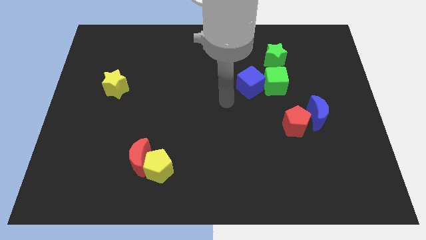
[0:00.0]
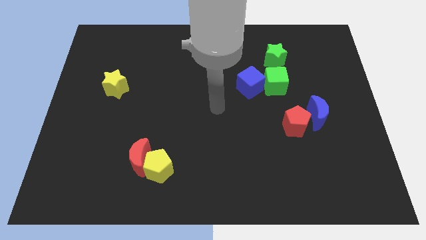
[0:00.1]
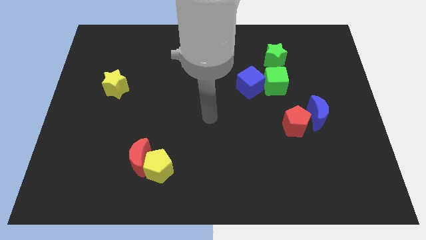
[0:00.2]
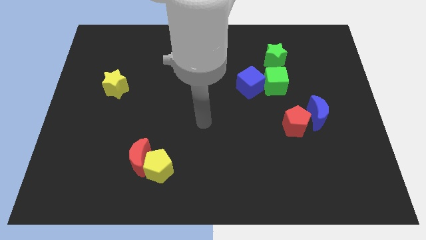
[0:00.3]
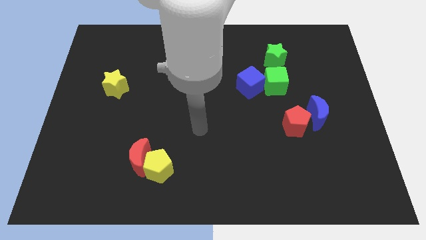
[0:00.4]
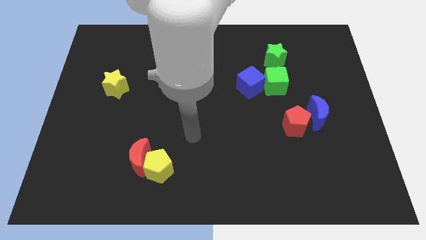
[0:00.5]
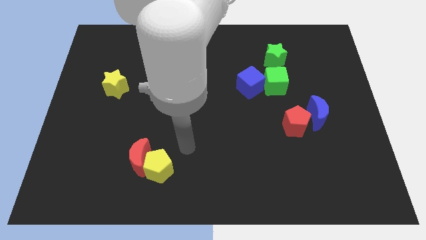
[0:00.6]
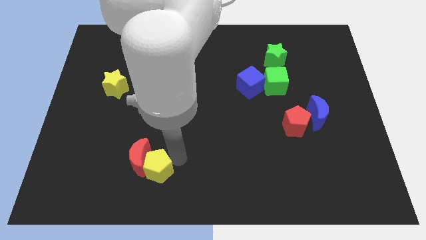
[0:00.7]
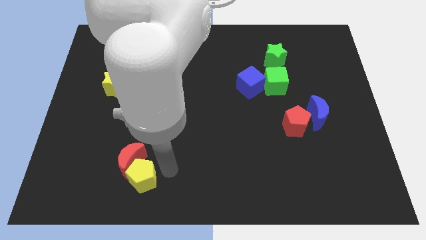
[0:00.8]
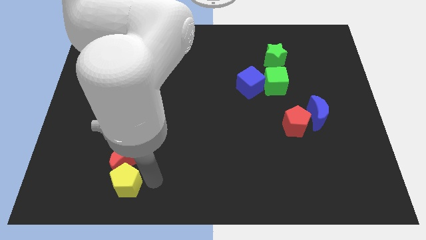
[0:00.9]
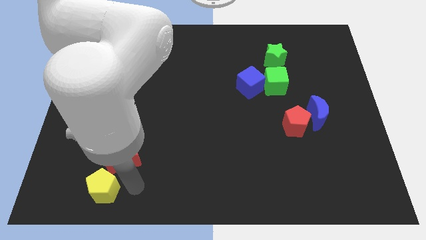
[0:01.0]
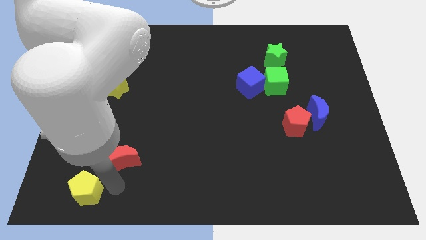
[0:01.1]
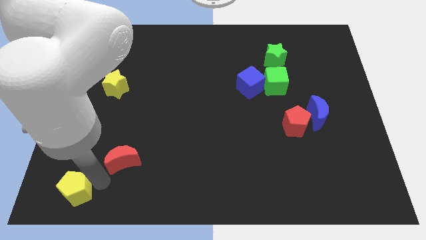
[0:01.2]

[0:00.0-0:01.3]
move the red moon away from the yellow pentagon

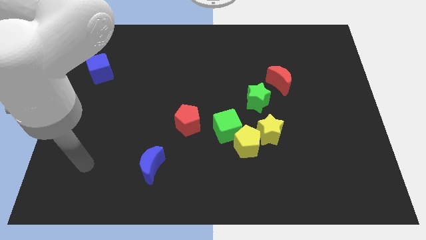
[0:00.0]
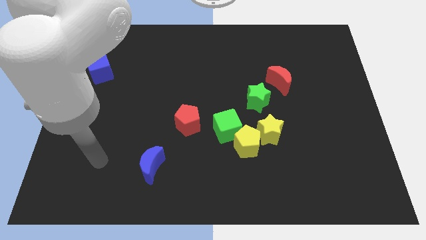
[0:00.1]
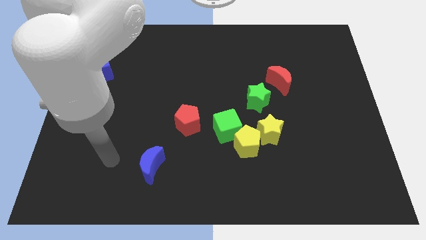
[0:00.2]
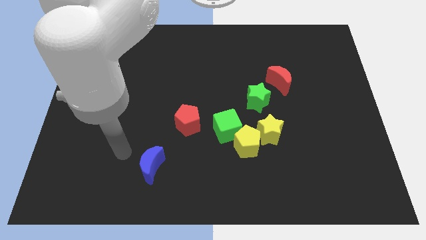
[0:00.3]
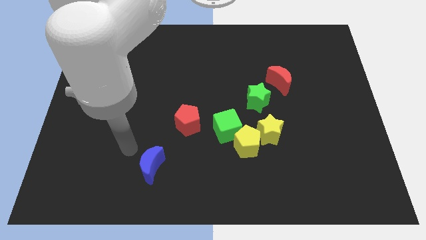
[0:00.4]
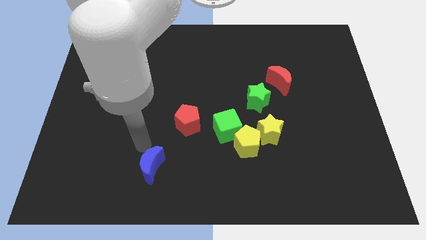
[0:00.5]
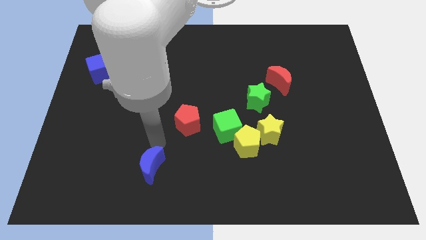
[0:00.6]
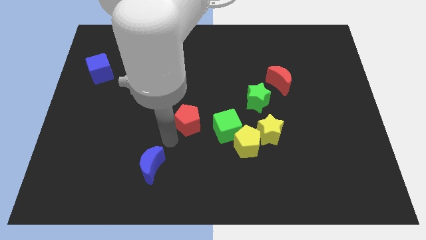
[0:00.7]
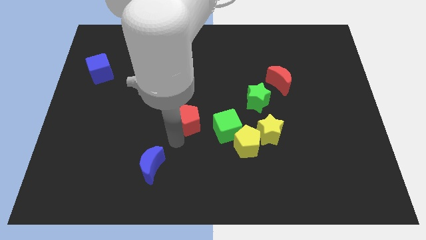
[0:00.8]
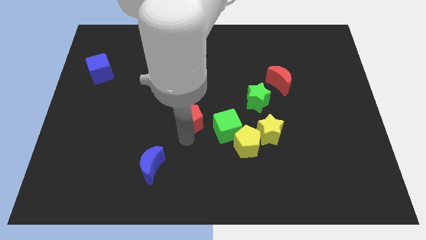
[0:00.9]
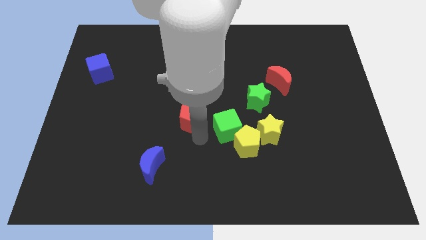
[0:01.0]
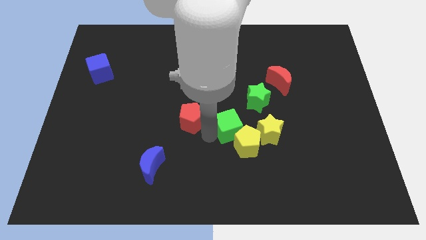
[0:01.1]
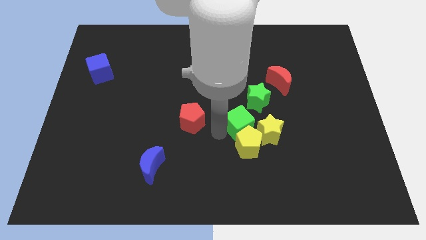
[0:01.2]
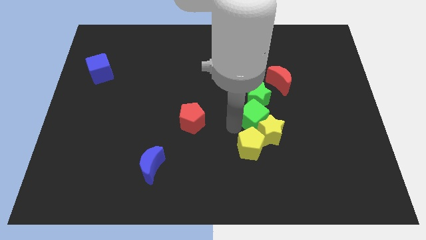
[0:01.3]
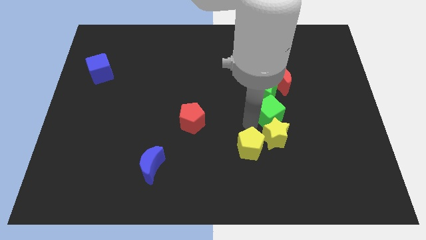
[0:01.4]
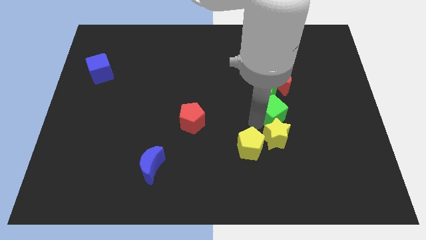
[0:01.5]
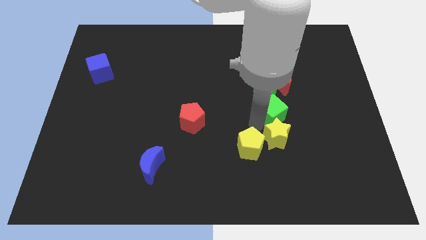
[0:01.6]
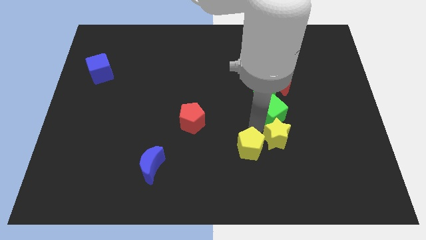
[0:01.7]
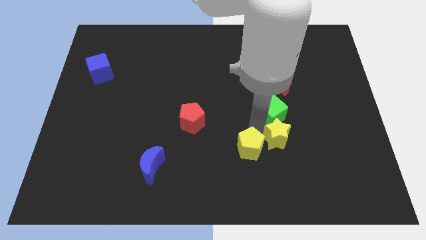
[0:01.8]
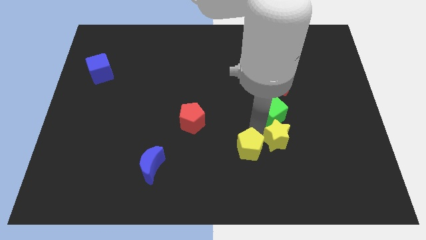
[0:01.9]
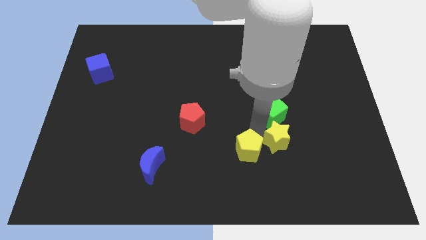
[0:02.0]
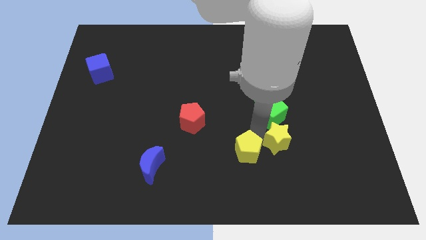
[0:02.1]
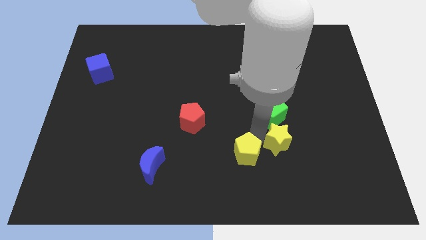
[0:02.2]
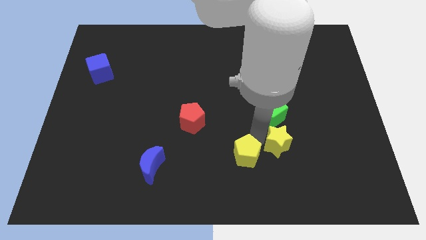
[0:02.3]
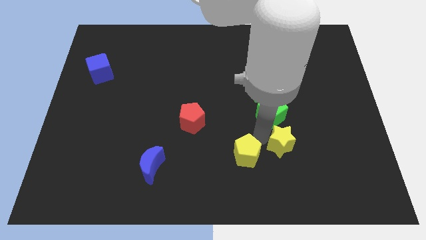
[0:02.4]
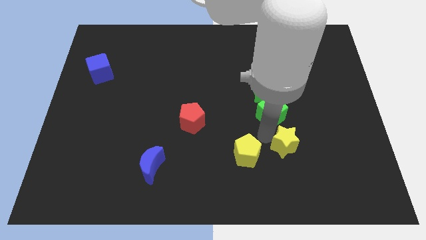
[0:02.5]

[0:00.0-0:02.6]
separate the yellow pentagon from the green cube and yellow star

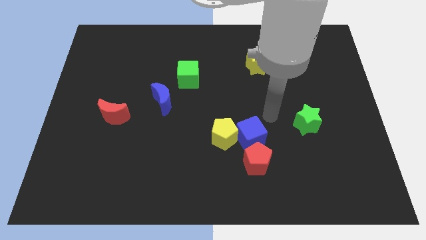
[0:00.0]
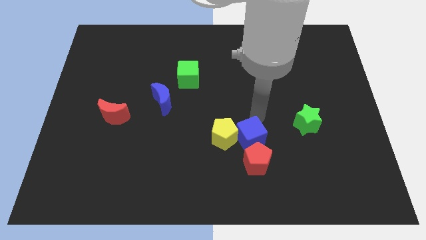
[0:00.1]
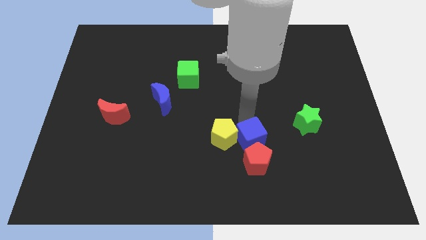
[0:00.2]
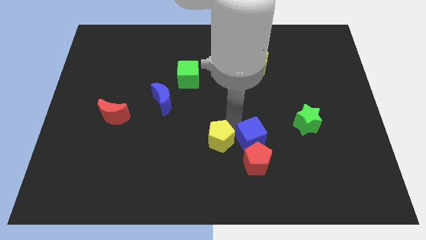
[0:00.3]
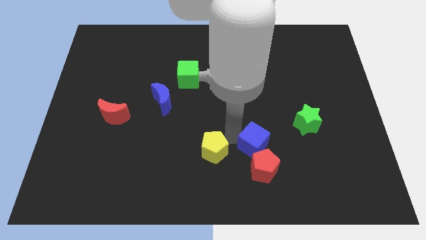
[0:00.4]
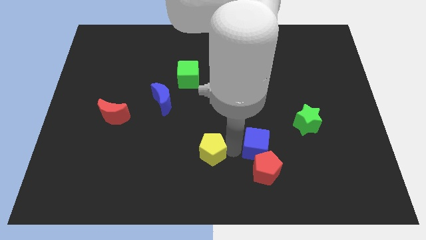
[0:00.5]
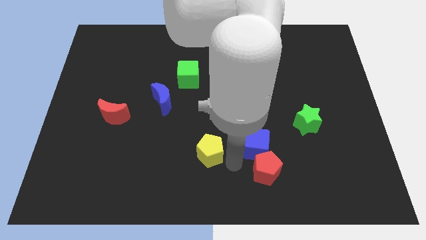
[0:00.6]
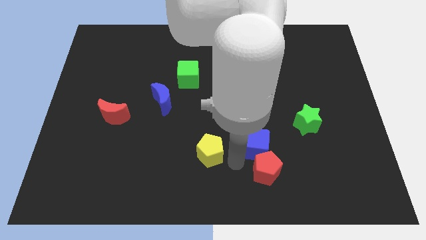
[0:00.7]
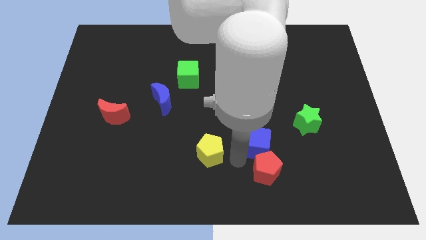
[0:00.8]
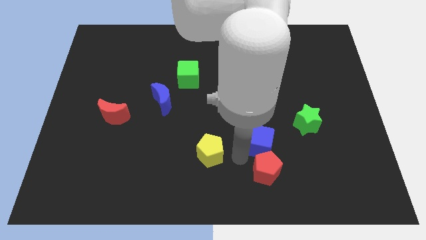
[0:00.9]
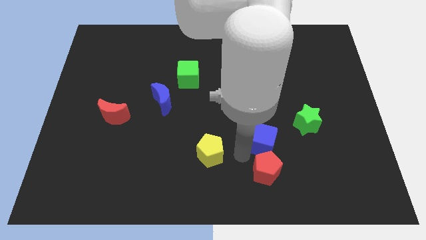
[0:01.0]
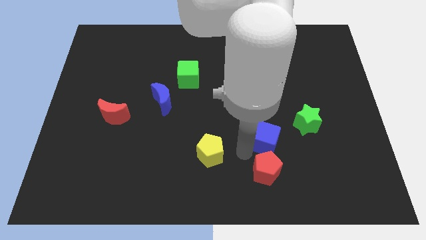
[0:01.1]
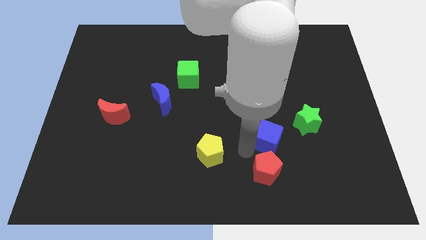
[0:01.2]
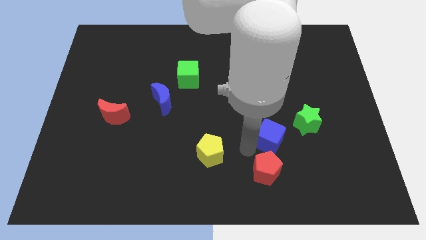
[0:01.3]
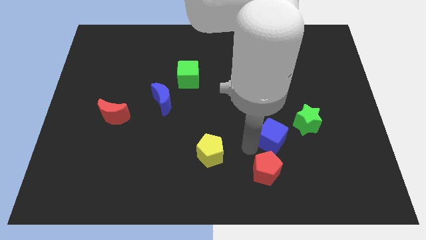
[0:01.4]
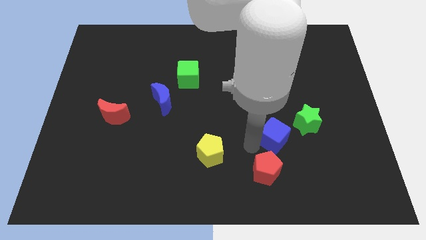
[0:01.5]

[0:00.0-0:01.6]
pull the blue cube apart from the yellow pentagon and red pentagon

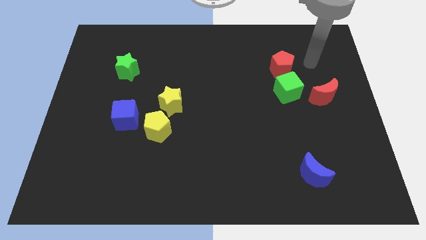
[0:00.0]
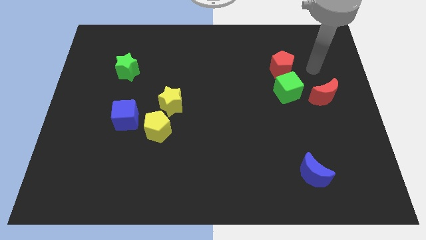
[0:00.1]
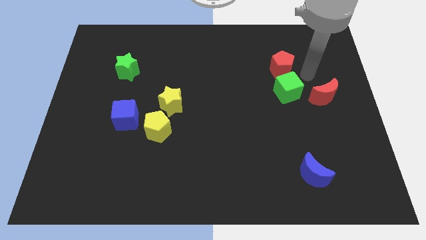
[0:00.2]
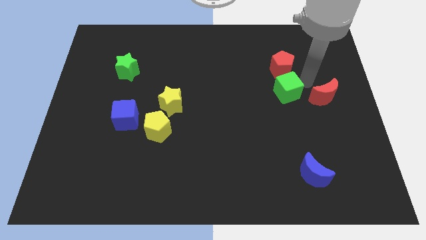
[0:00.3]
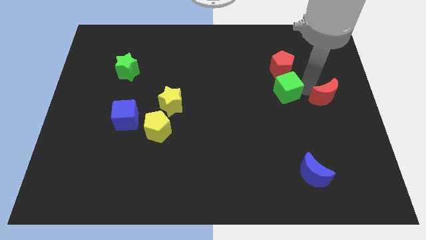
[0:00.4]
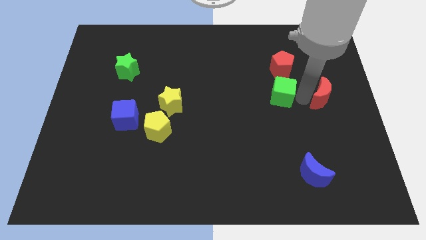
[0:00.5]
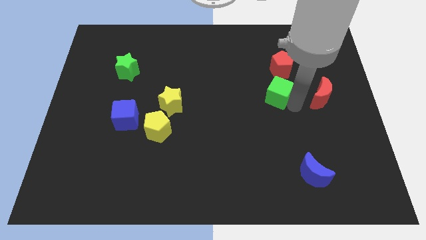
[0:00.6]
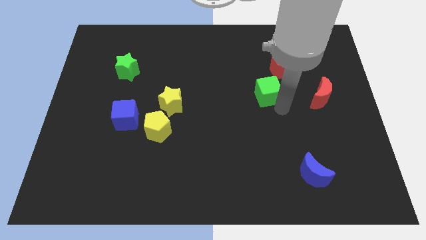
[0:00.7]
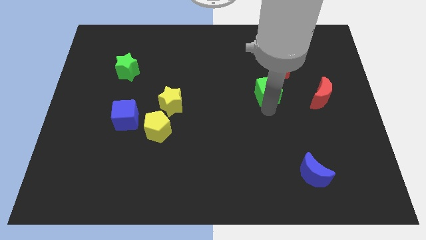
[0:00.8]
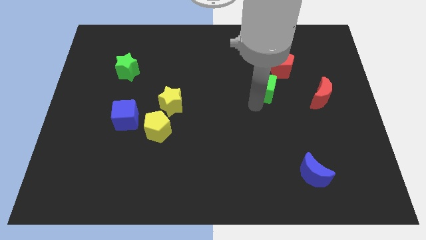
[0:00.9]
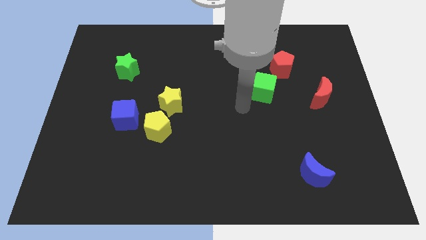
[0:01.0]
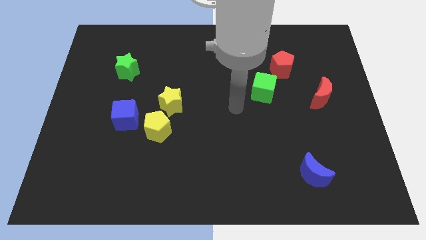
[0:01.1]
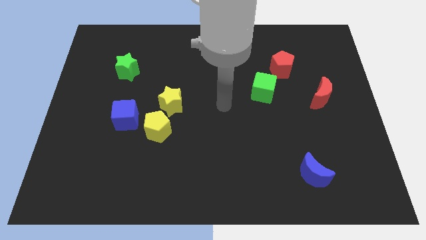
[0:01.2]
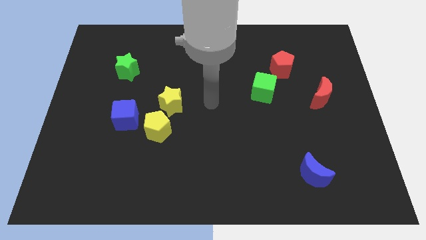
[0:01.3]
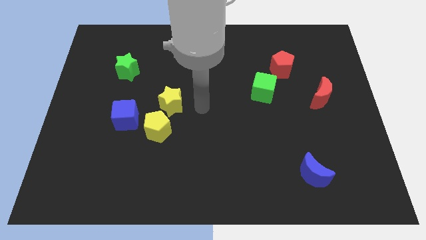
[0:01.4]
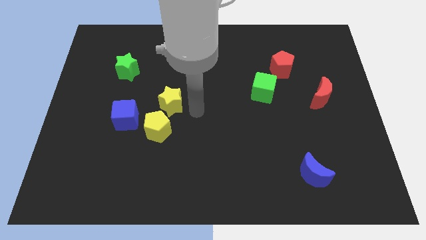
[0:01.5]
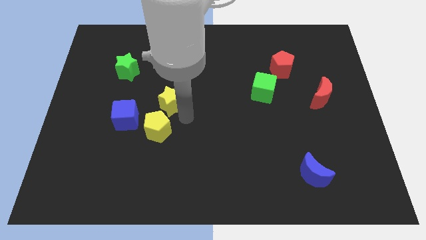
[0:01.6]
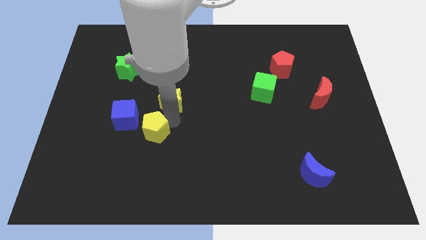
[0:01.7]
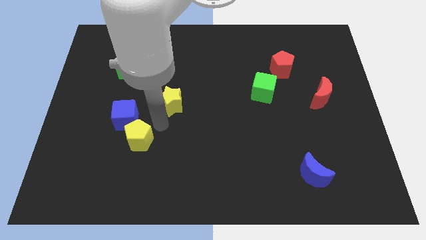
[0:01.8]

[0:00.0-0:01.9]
move the yellow star away from the yellow pentagon

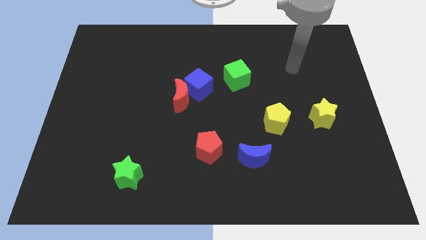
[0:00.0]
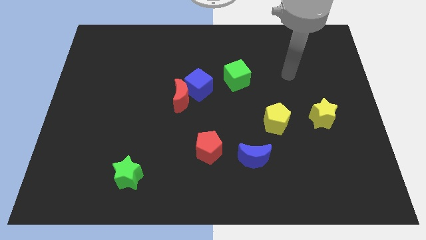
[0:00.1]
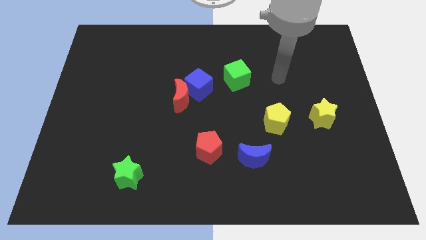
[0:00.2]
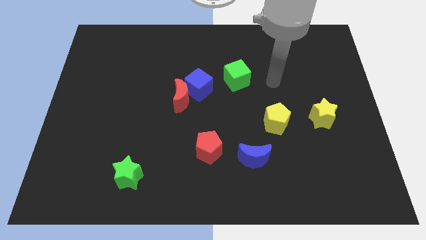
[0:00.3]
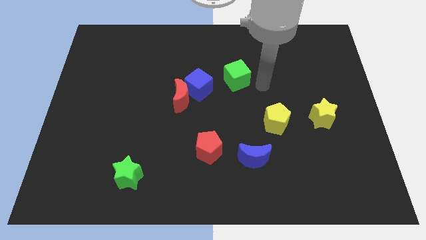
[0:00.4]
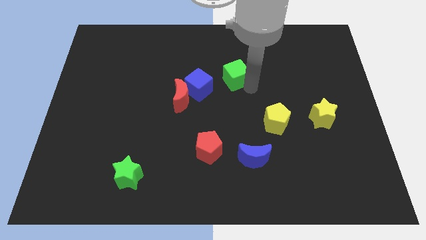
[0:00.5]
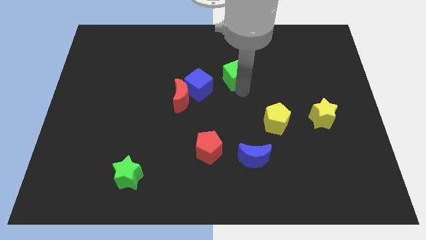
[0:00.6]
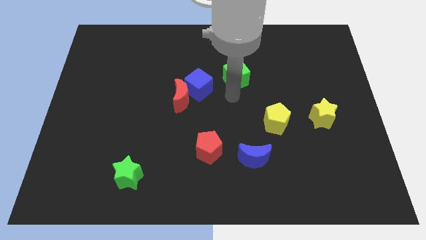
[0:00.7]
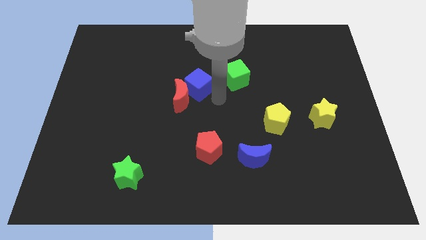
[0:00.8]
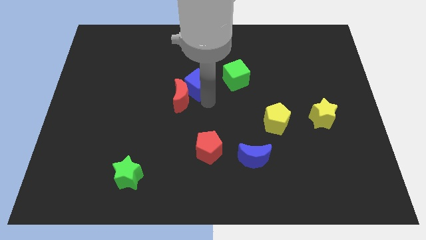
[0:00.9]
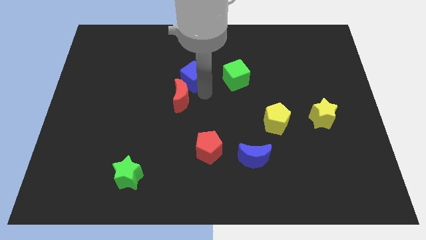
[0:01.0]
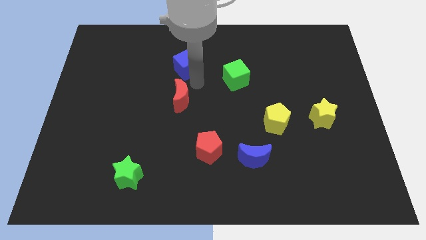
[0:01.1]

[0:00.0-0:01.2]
separate the red moon from the blue cube

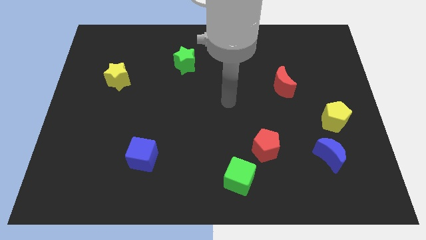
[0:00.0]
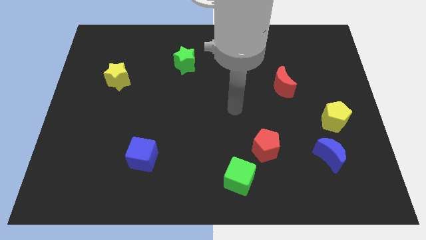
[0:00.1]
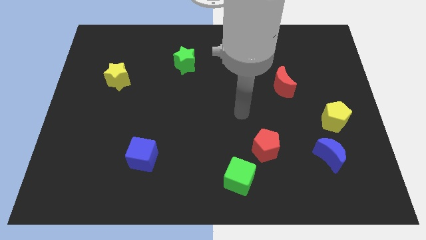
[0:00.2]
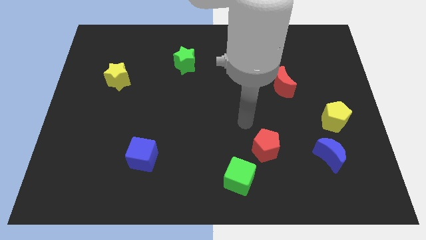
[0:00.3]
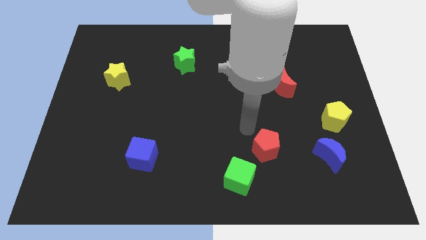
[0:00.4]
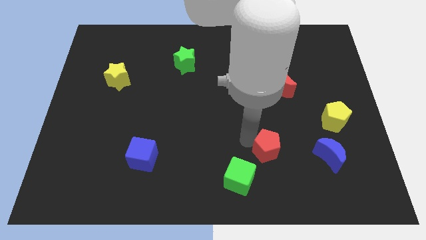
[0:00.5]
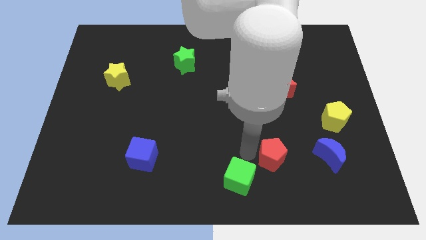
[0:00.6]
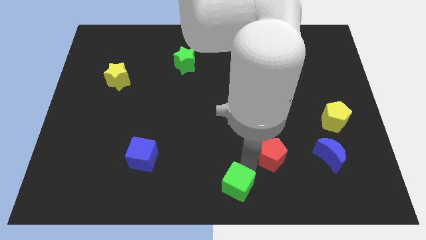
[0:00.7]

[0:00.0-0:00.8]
separate the red pentagon from the green cube
